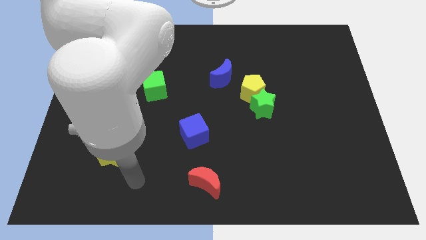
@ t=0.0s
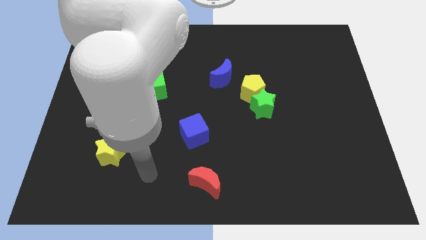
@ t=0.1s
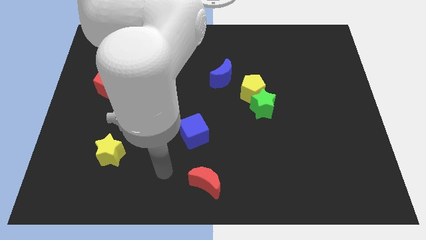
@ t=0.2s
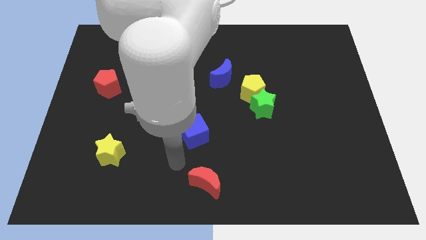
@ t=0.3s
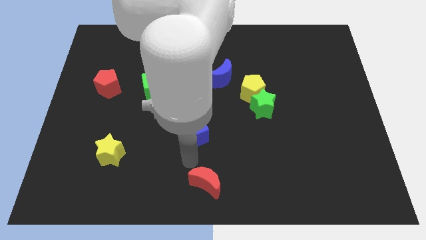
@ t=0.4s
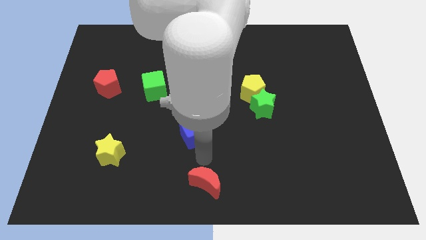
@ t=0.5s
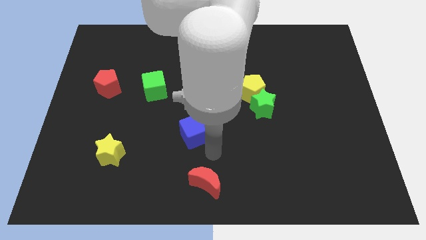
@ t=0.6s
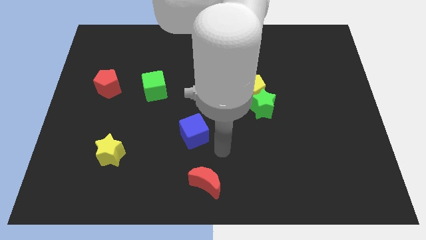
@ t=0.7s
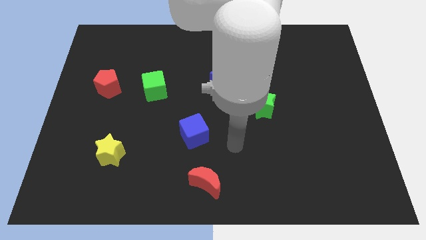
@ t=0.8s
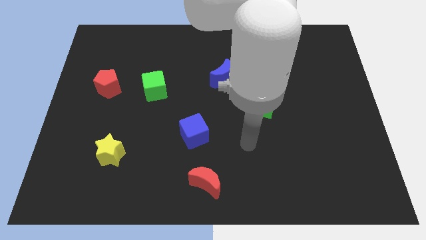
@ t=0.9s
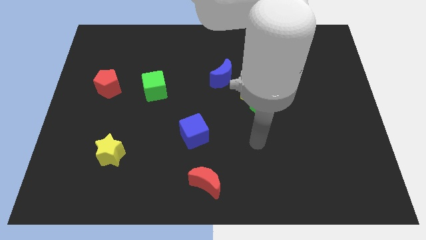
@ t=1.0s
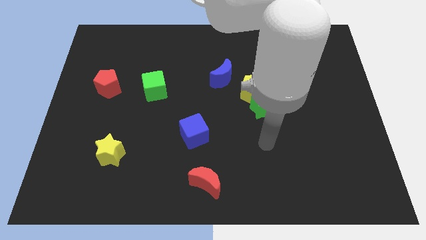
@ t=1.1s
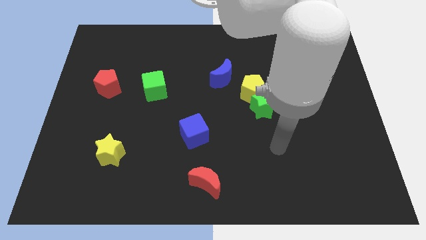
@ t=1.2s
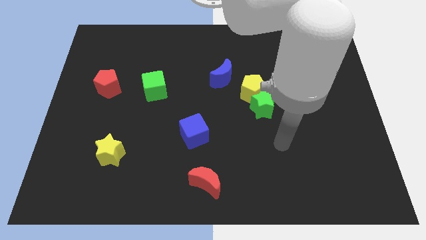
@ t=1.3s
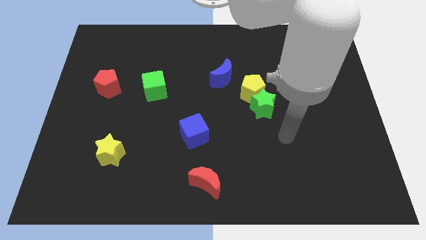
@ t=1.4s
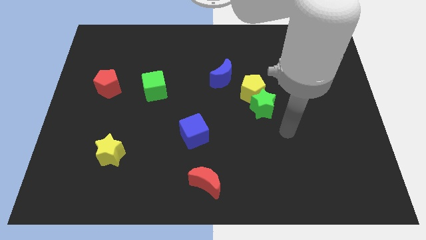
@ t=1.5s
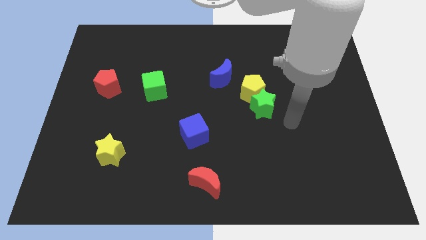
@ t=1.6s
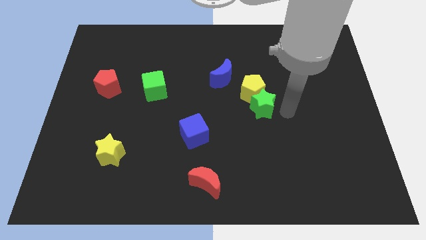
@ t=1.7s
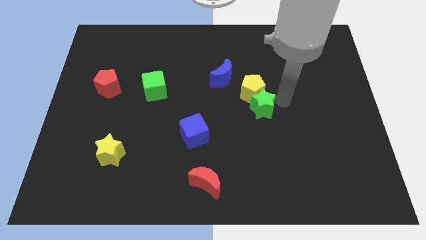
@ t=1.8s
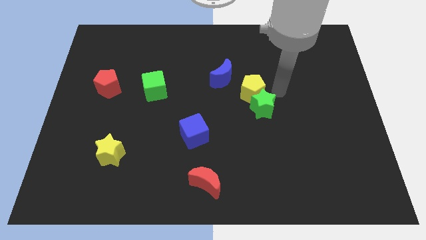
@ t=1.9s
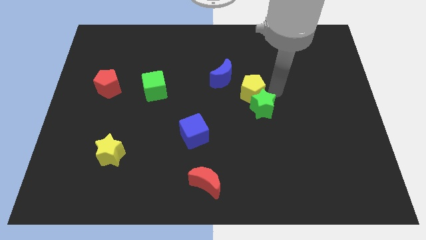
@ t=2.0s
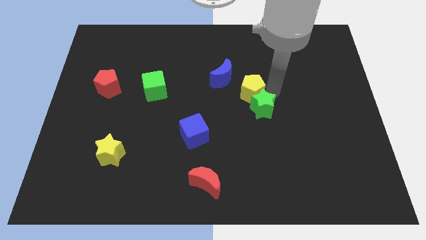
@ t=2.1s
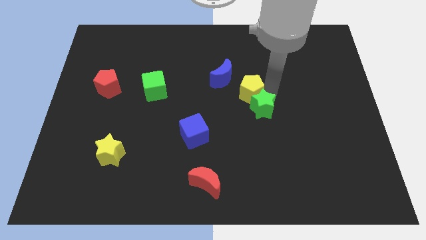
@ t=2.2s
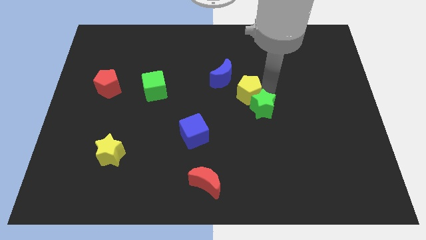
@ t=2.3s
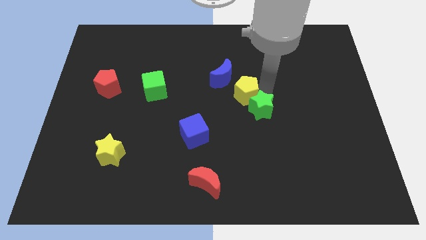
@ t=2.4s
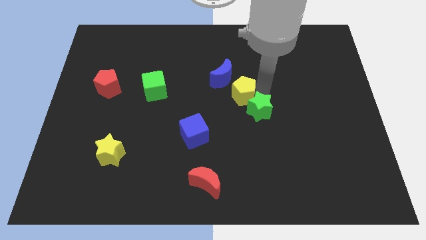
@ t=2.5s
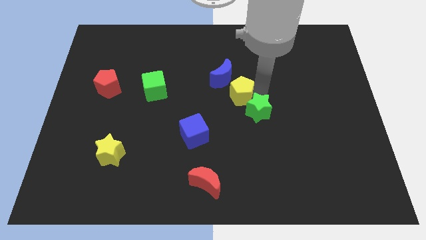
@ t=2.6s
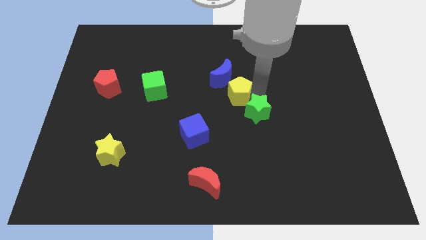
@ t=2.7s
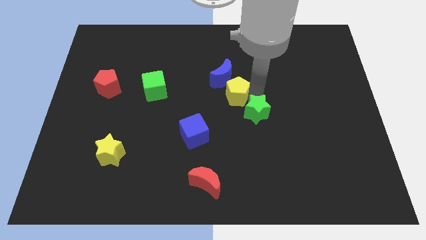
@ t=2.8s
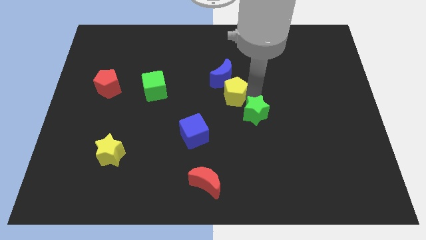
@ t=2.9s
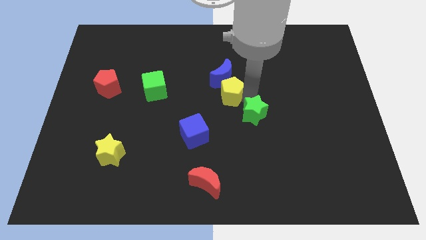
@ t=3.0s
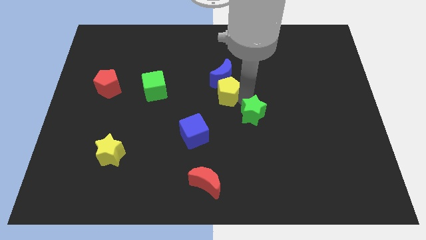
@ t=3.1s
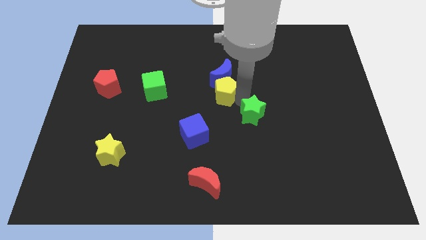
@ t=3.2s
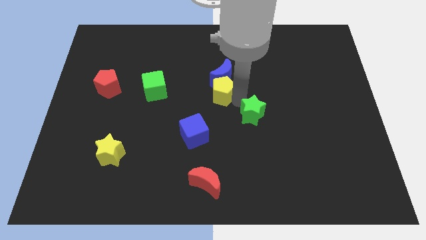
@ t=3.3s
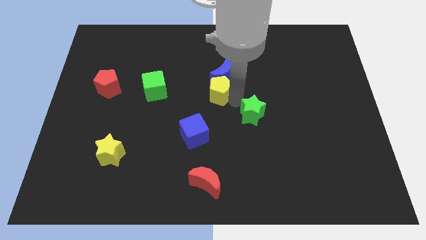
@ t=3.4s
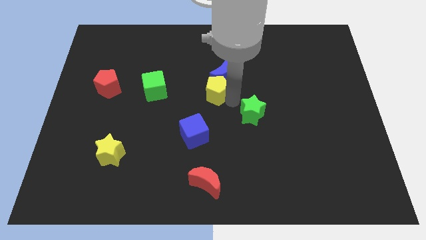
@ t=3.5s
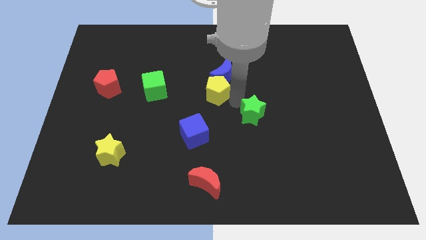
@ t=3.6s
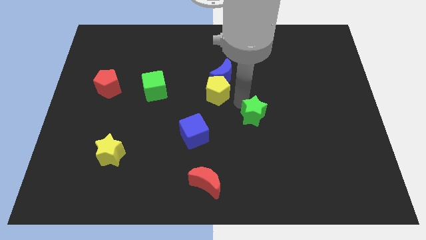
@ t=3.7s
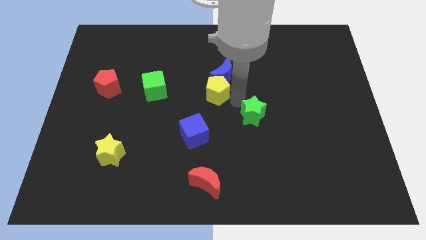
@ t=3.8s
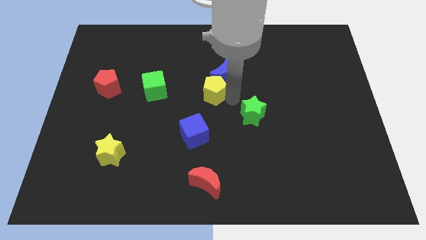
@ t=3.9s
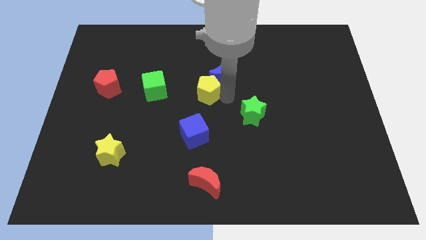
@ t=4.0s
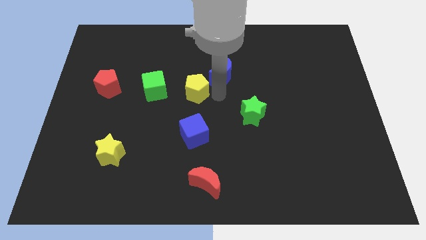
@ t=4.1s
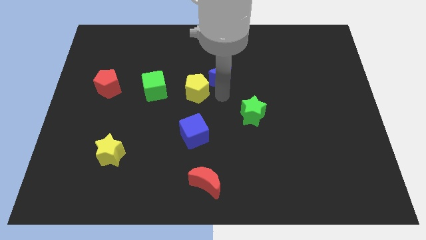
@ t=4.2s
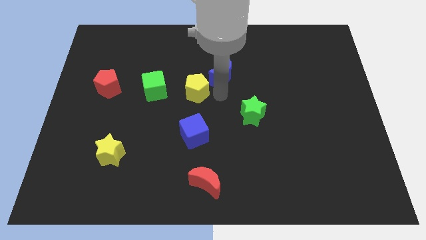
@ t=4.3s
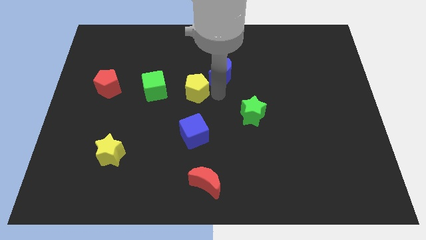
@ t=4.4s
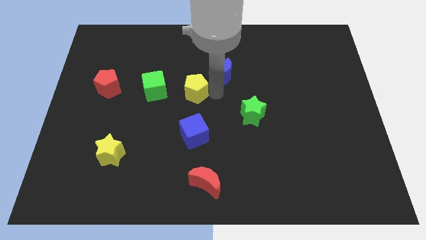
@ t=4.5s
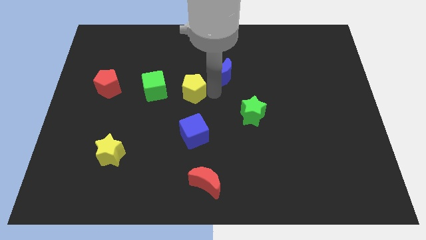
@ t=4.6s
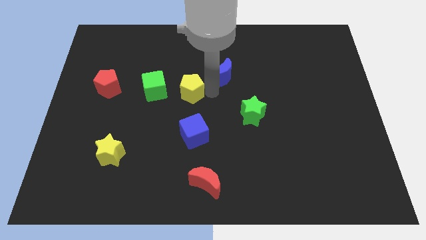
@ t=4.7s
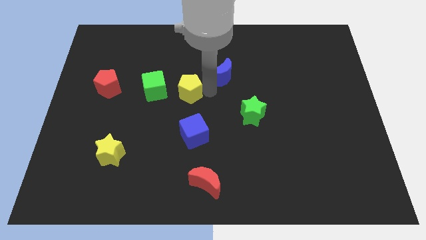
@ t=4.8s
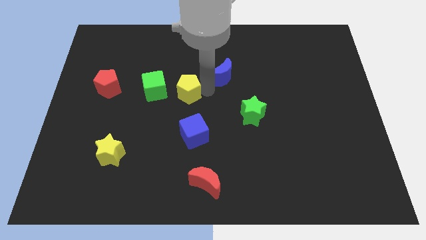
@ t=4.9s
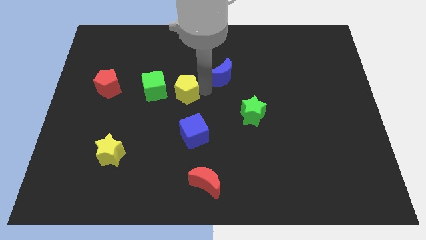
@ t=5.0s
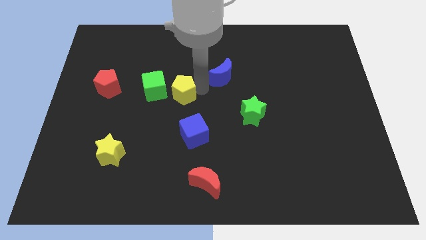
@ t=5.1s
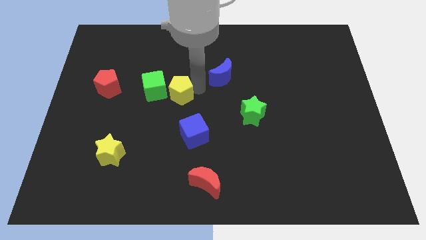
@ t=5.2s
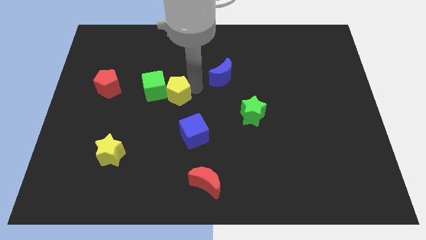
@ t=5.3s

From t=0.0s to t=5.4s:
push the yellow pentagon towards the green cube

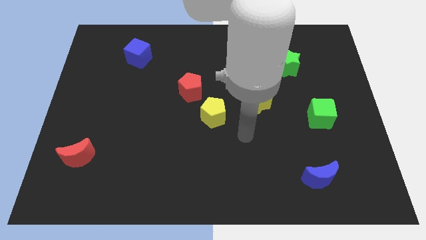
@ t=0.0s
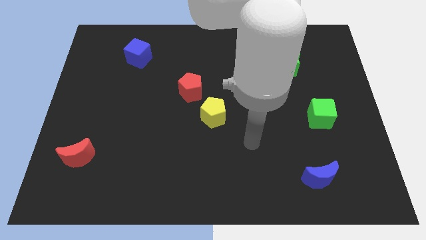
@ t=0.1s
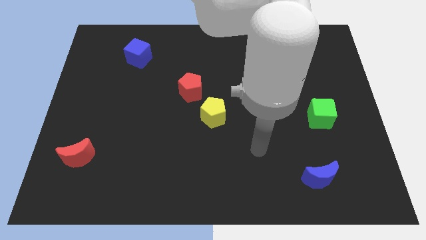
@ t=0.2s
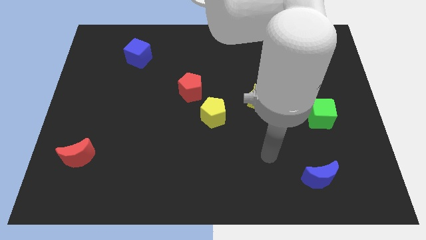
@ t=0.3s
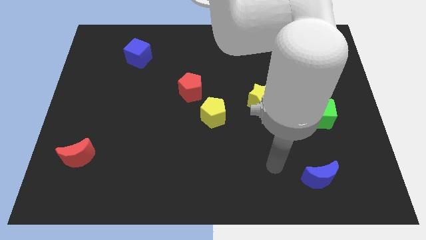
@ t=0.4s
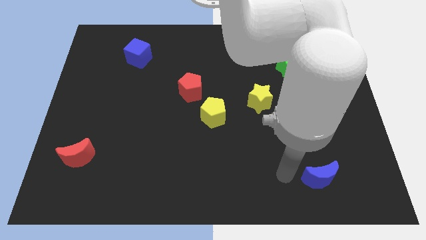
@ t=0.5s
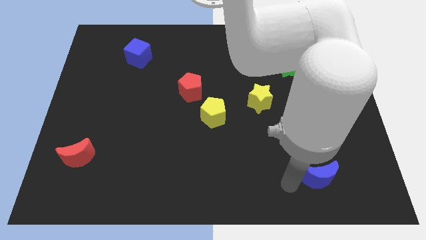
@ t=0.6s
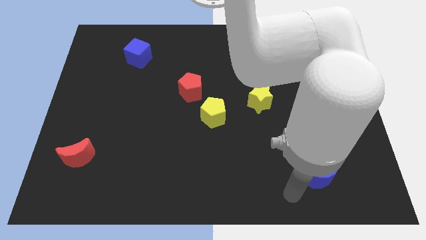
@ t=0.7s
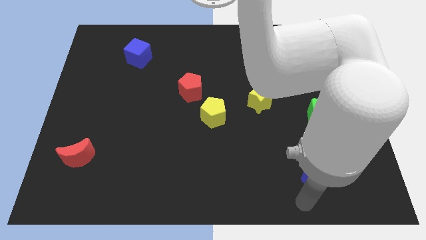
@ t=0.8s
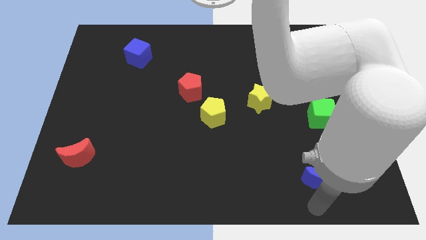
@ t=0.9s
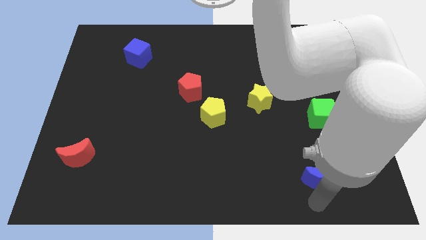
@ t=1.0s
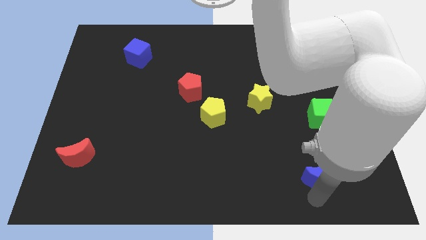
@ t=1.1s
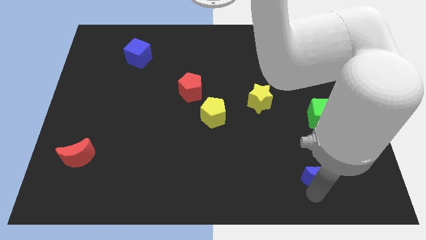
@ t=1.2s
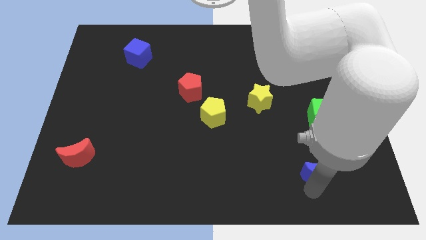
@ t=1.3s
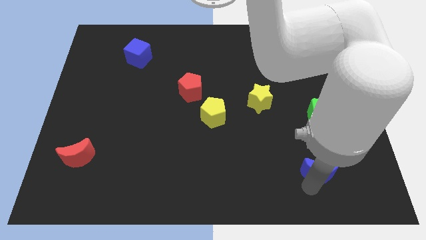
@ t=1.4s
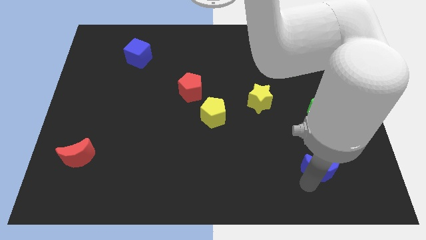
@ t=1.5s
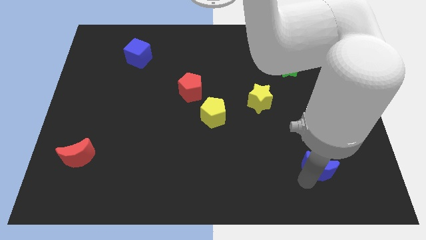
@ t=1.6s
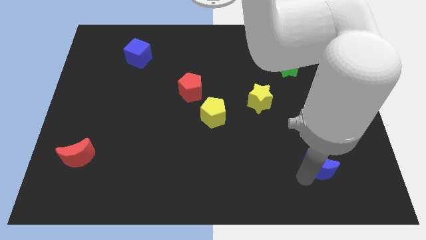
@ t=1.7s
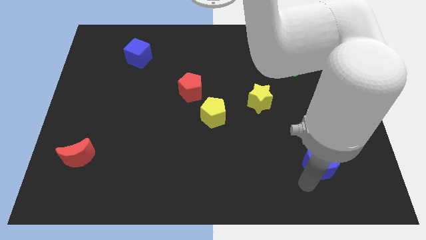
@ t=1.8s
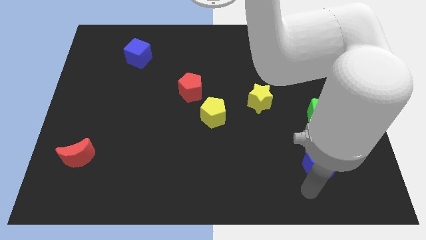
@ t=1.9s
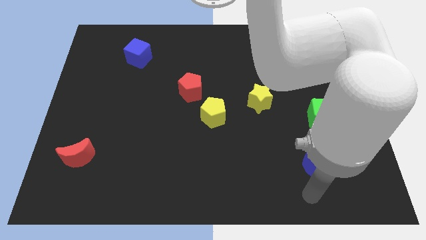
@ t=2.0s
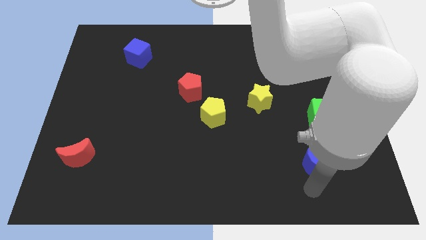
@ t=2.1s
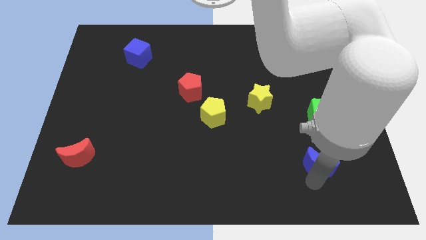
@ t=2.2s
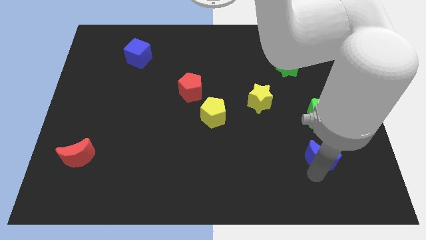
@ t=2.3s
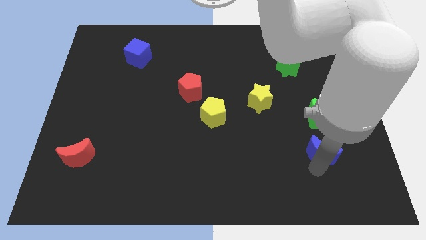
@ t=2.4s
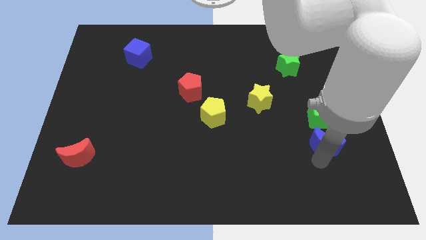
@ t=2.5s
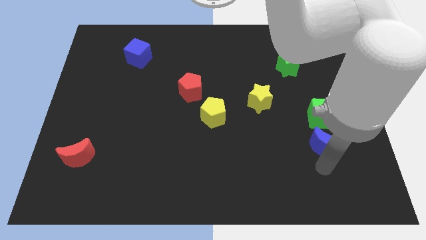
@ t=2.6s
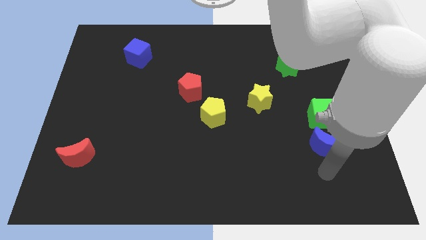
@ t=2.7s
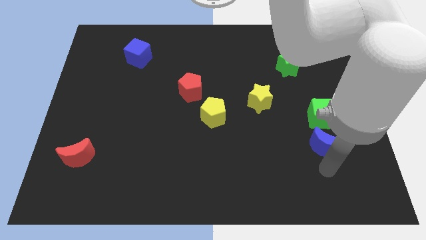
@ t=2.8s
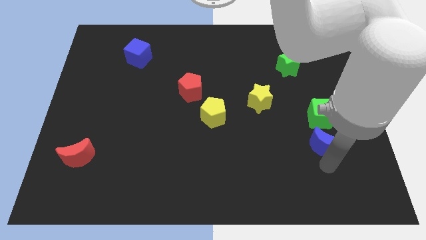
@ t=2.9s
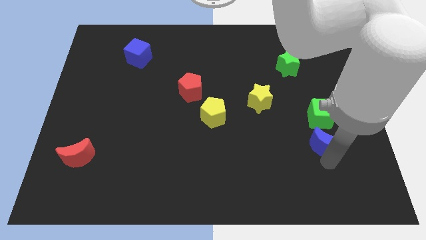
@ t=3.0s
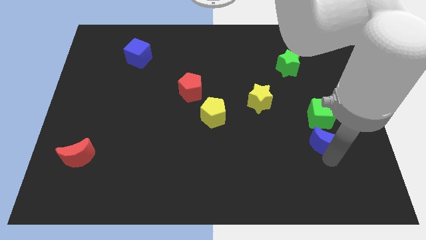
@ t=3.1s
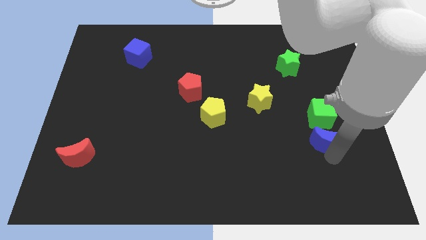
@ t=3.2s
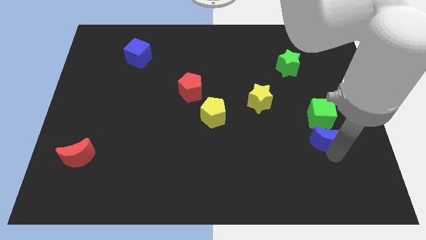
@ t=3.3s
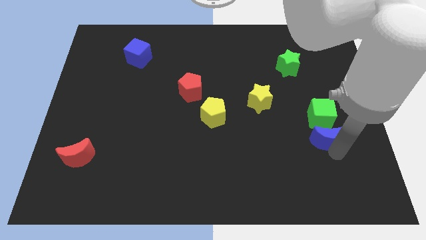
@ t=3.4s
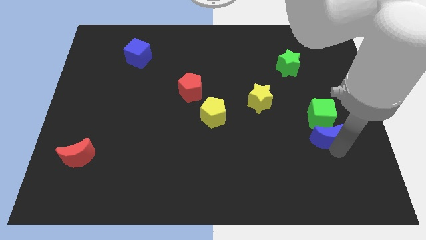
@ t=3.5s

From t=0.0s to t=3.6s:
slide the blue moon next to the green cube
